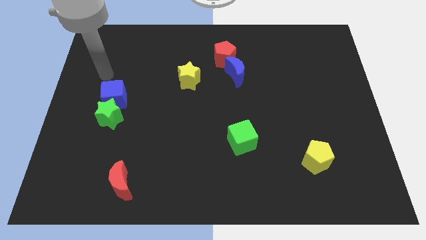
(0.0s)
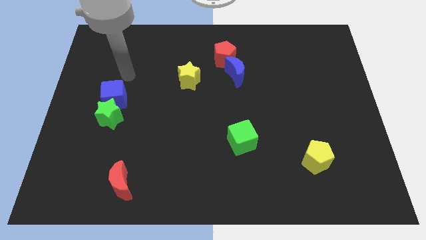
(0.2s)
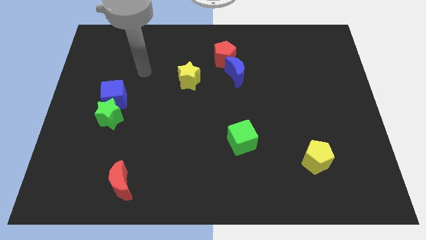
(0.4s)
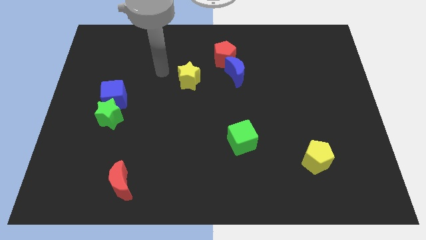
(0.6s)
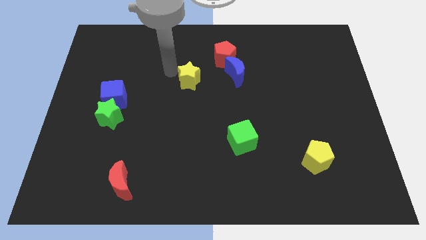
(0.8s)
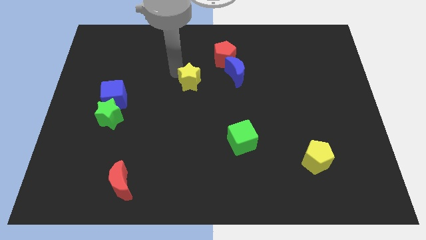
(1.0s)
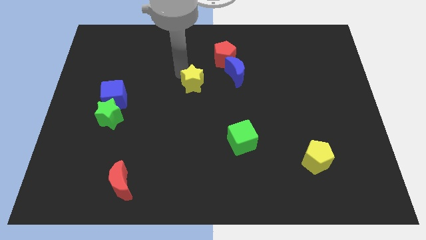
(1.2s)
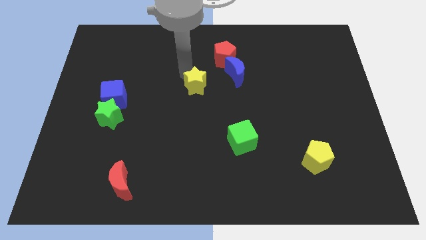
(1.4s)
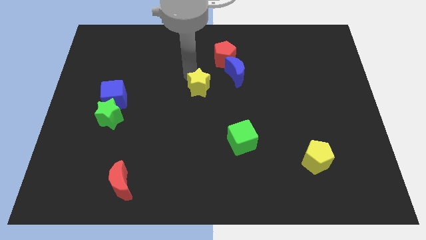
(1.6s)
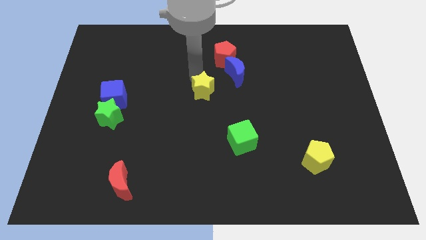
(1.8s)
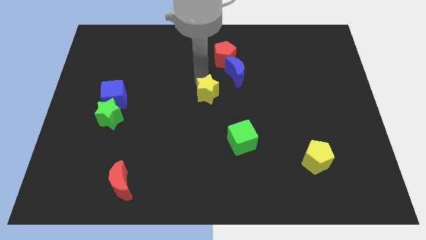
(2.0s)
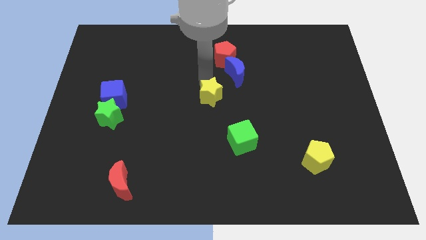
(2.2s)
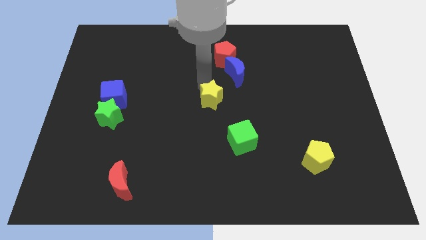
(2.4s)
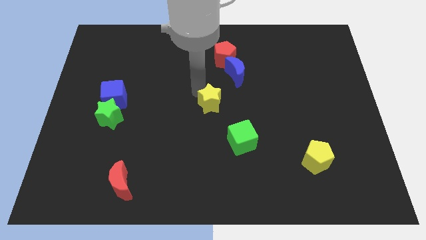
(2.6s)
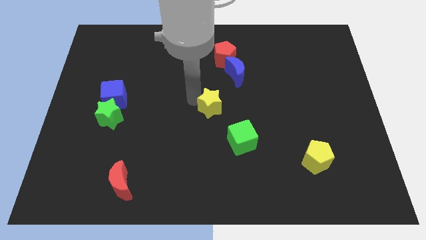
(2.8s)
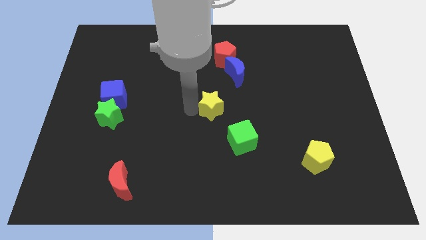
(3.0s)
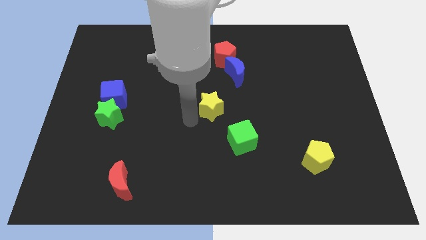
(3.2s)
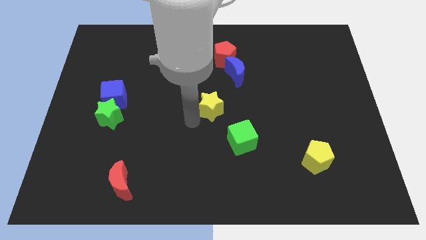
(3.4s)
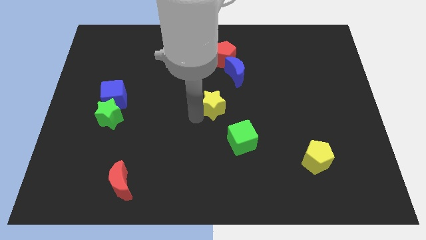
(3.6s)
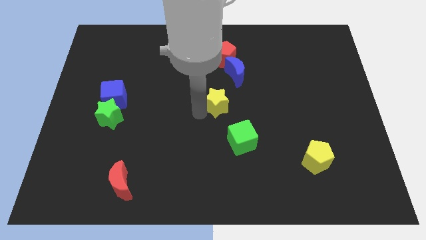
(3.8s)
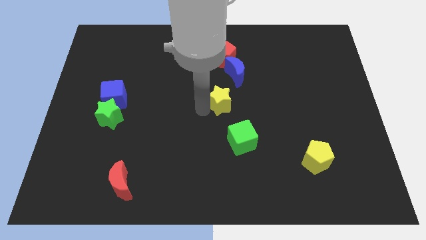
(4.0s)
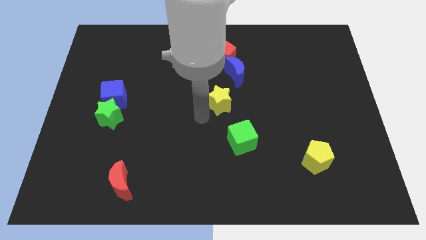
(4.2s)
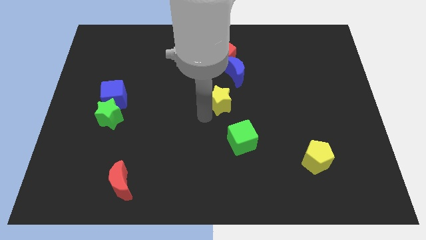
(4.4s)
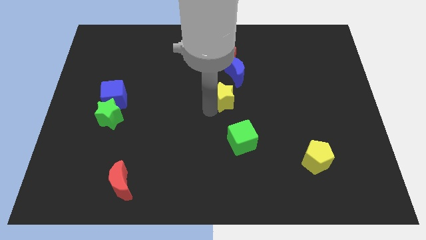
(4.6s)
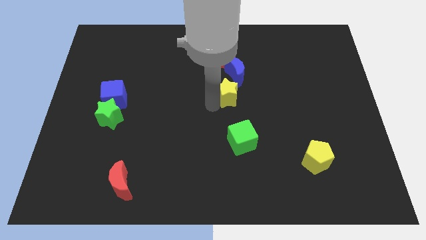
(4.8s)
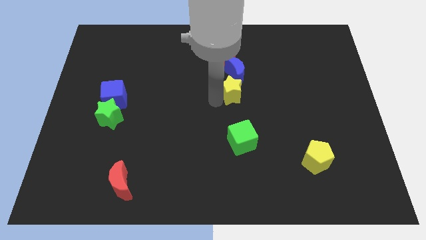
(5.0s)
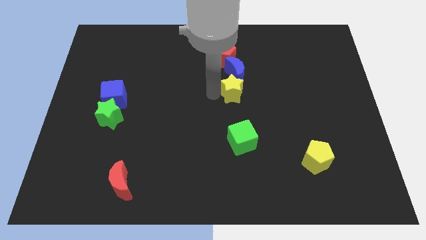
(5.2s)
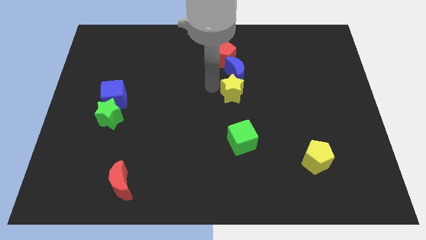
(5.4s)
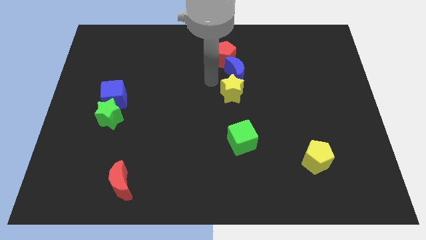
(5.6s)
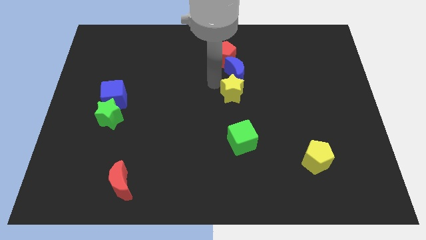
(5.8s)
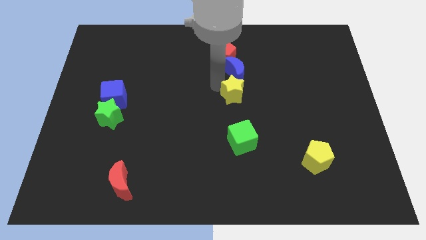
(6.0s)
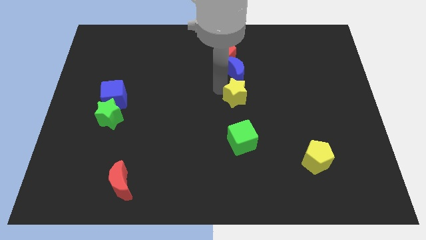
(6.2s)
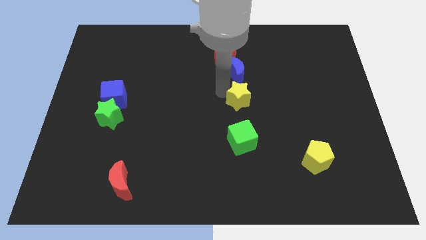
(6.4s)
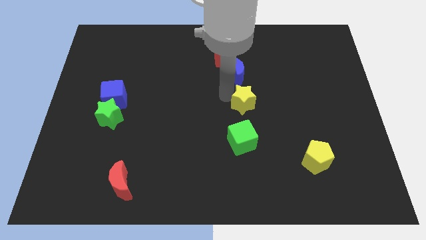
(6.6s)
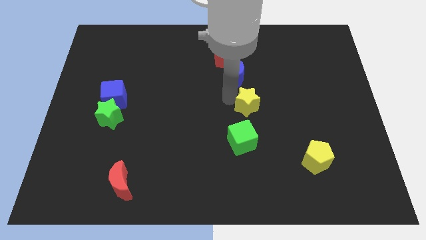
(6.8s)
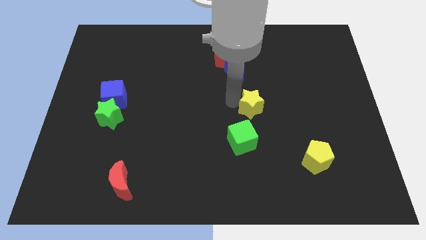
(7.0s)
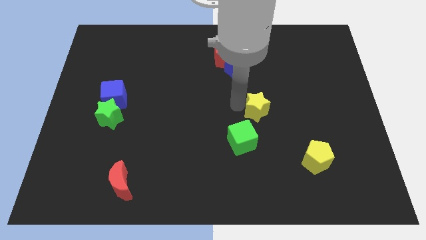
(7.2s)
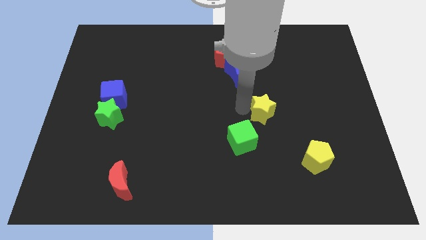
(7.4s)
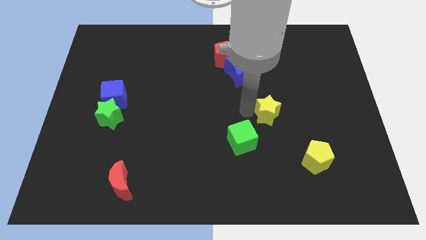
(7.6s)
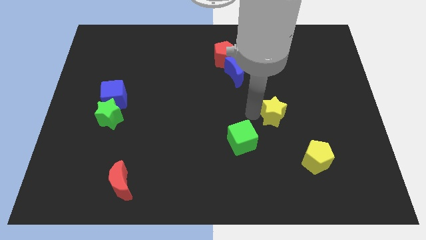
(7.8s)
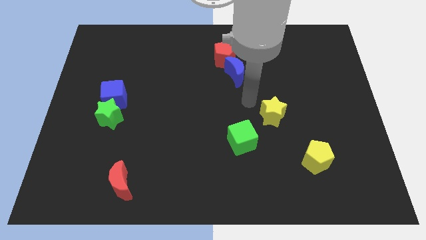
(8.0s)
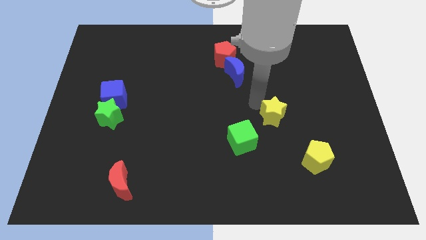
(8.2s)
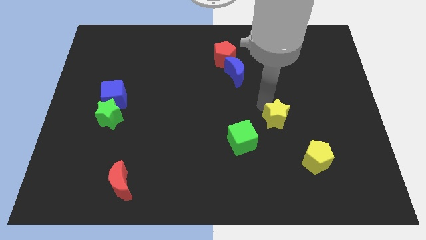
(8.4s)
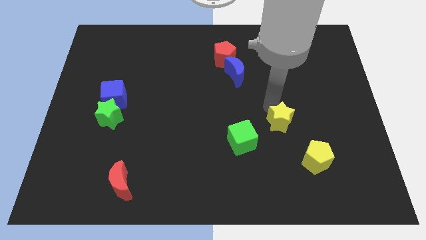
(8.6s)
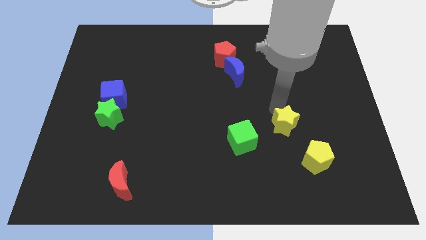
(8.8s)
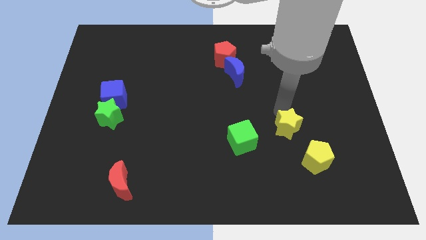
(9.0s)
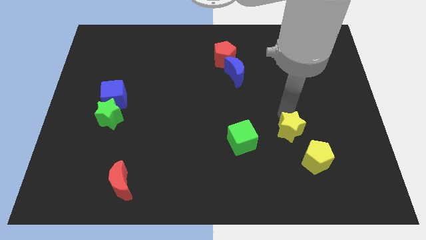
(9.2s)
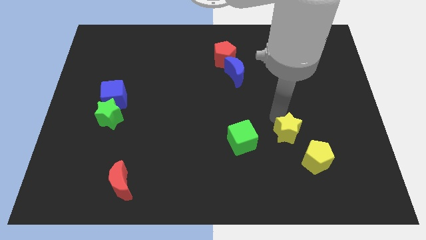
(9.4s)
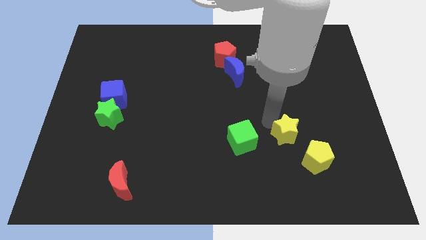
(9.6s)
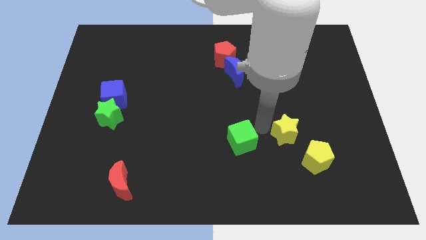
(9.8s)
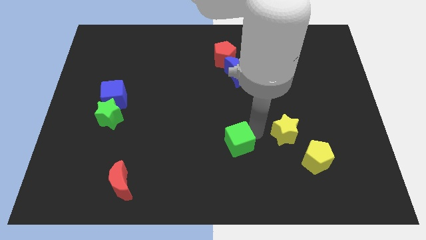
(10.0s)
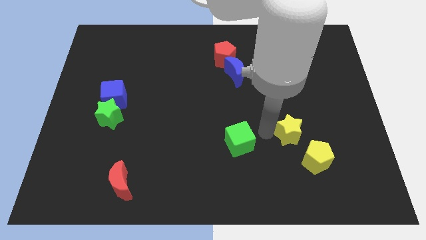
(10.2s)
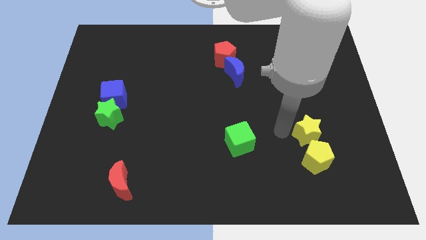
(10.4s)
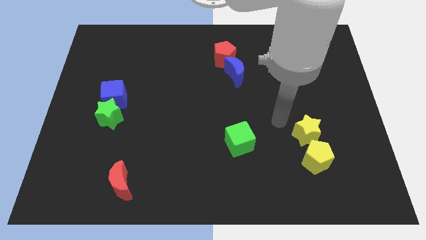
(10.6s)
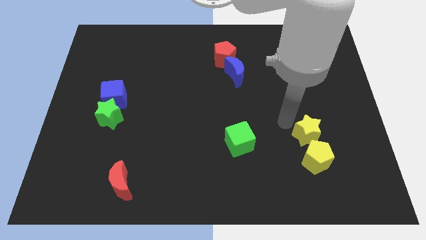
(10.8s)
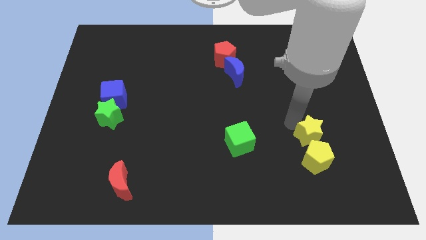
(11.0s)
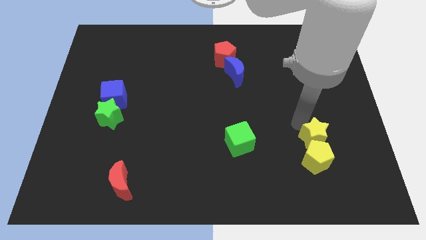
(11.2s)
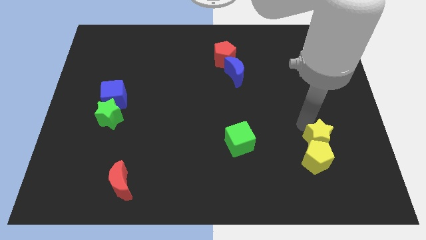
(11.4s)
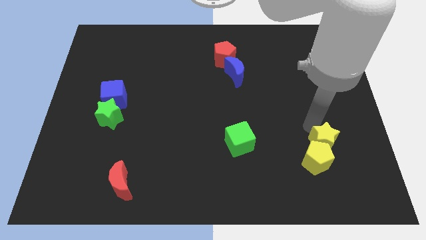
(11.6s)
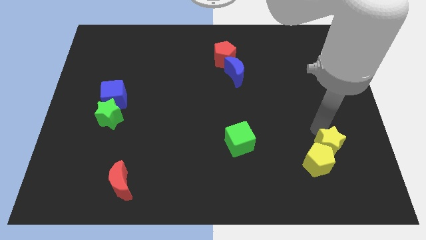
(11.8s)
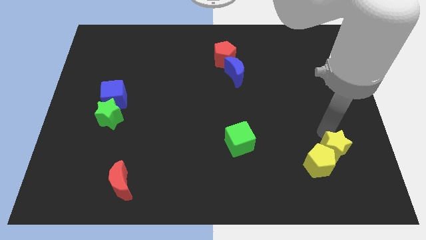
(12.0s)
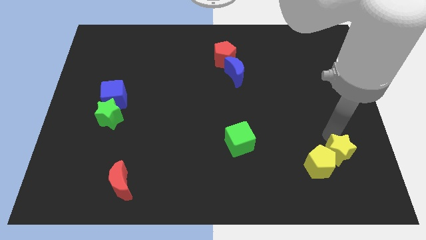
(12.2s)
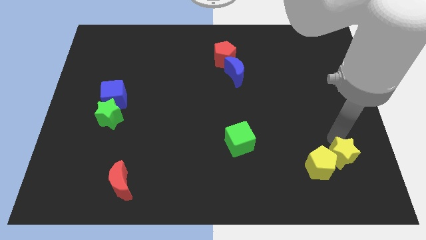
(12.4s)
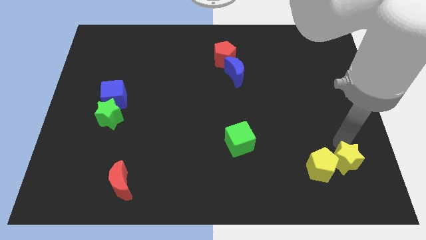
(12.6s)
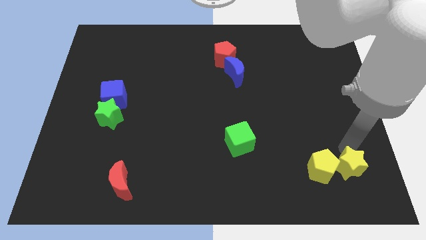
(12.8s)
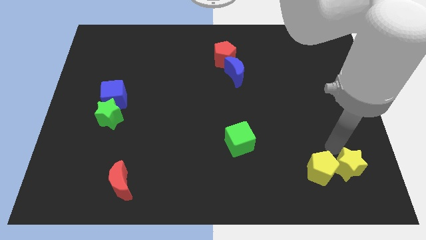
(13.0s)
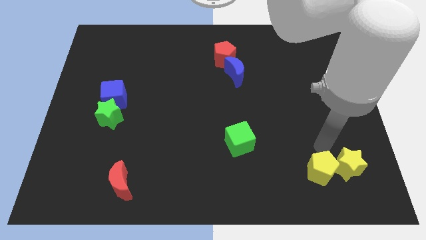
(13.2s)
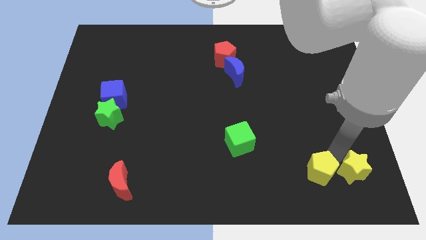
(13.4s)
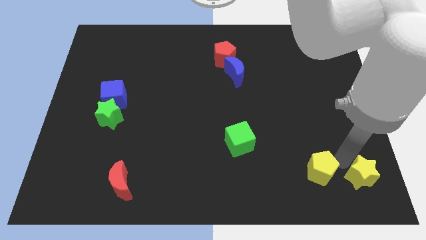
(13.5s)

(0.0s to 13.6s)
move the yellow star to the bottom right of the board
